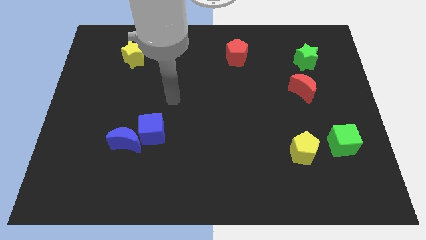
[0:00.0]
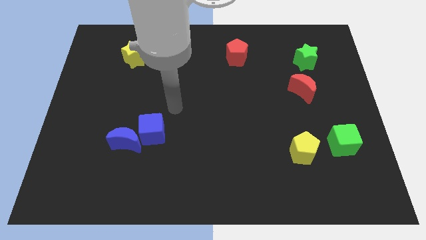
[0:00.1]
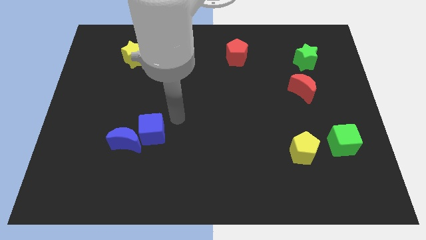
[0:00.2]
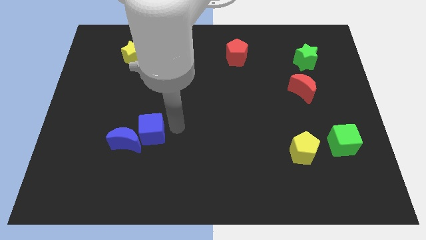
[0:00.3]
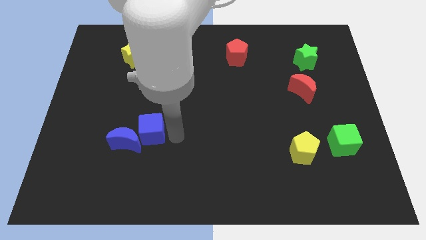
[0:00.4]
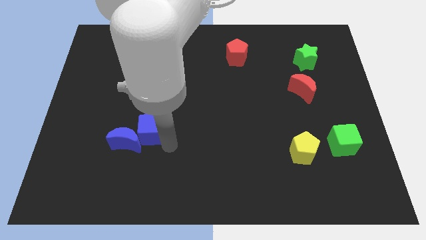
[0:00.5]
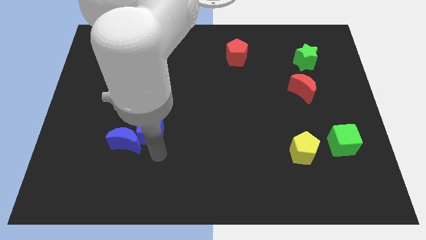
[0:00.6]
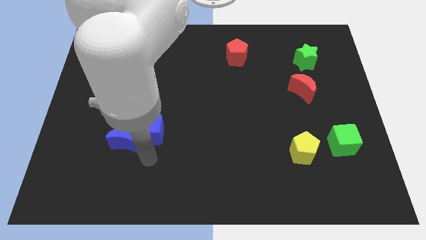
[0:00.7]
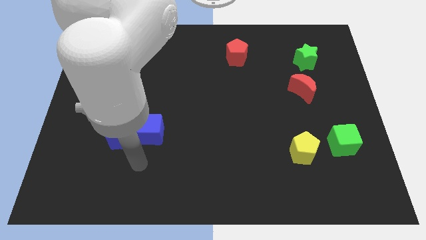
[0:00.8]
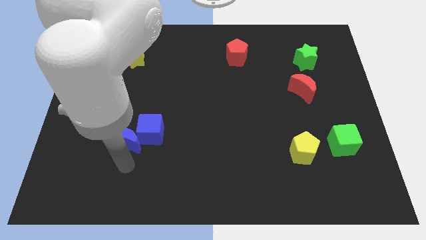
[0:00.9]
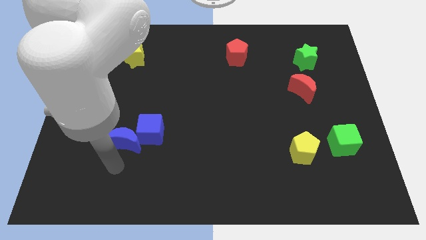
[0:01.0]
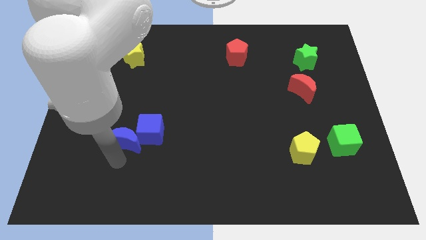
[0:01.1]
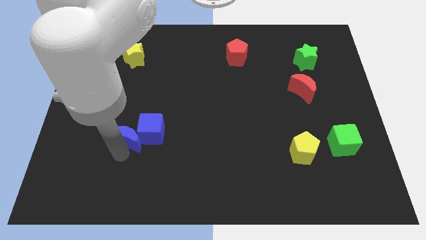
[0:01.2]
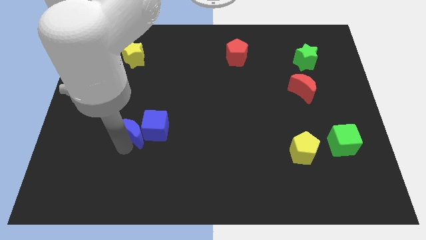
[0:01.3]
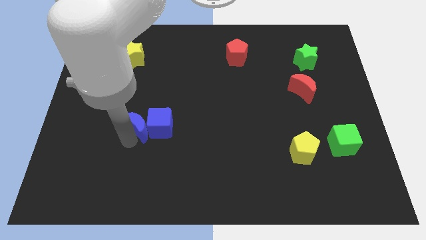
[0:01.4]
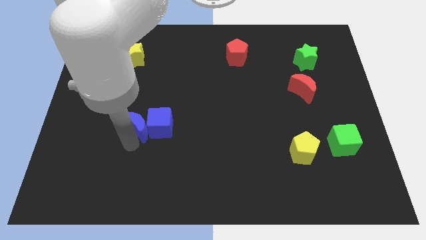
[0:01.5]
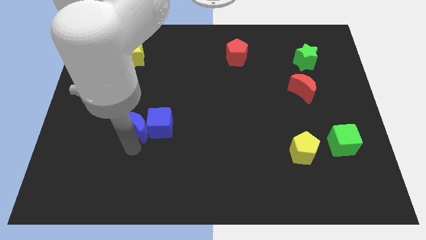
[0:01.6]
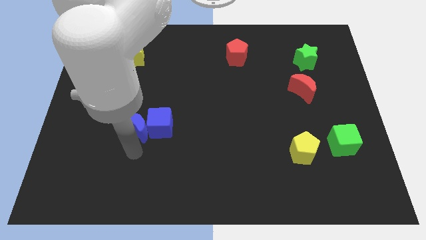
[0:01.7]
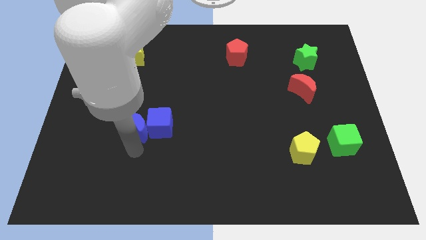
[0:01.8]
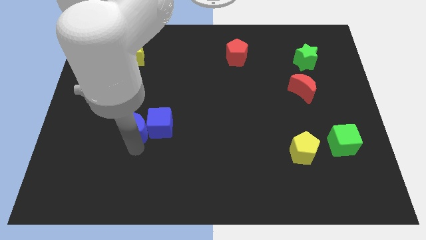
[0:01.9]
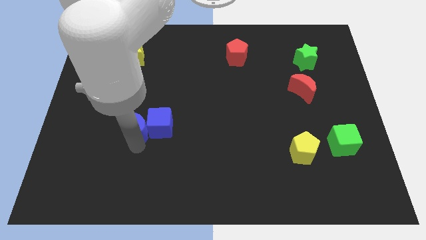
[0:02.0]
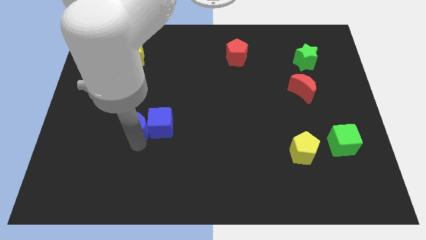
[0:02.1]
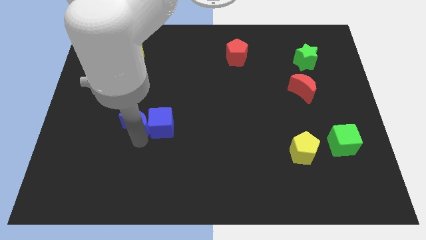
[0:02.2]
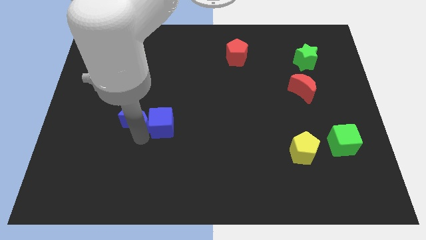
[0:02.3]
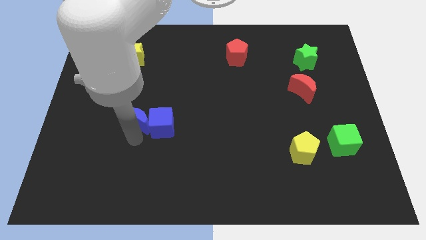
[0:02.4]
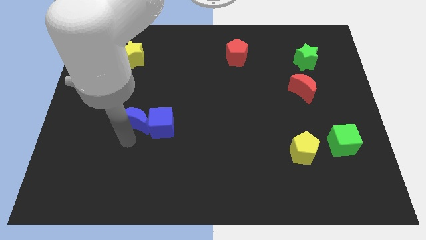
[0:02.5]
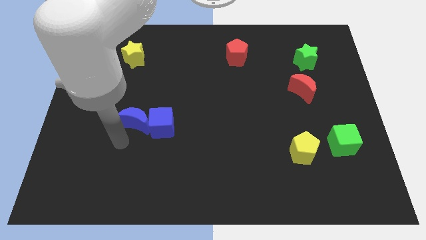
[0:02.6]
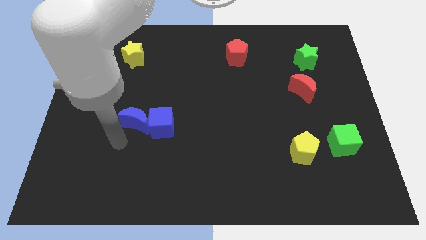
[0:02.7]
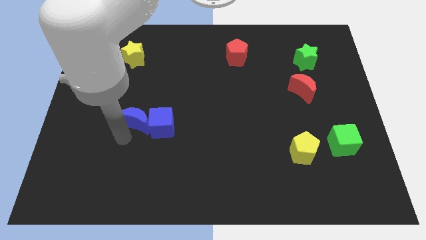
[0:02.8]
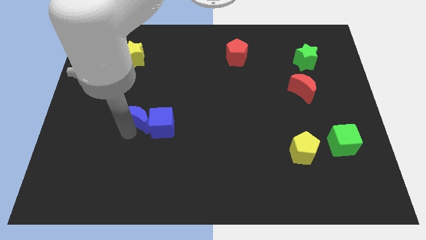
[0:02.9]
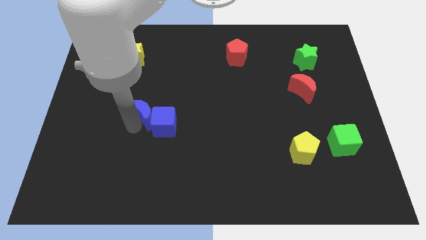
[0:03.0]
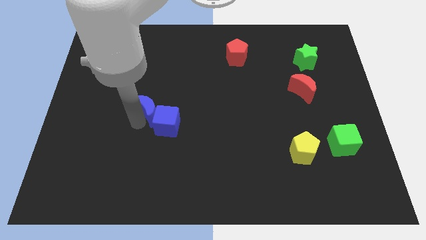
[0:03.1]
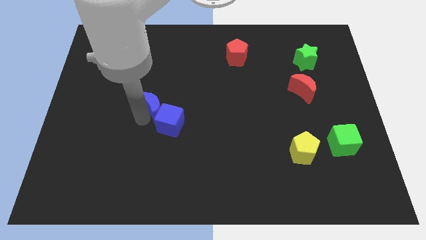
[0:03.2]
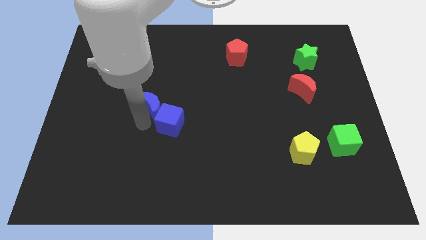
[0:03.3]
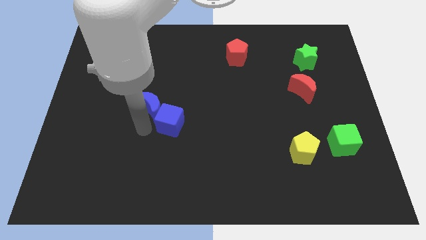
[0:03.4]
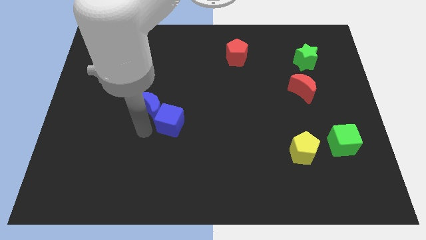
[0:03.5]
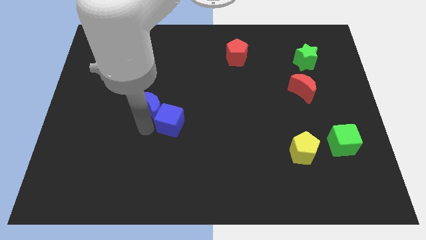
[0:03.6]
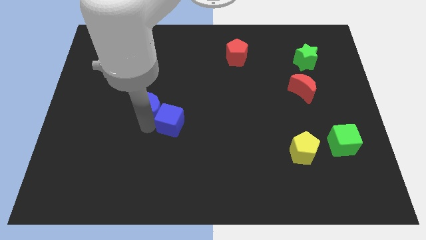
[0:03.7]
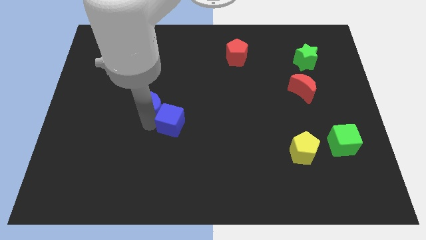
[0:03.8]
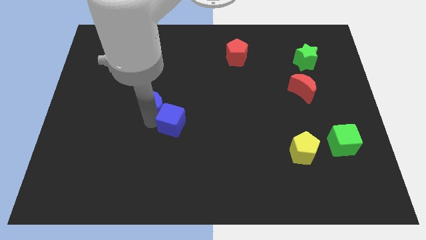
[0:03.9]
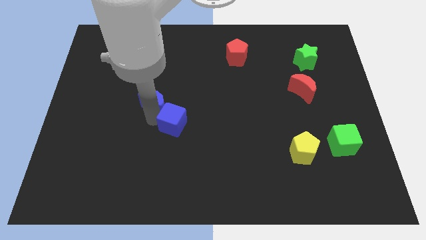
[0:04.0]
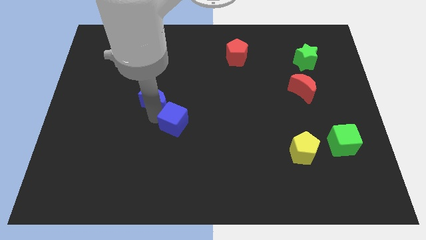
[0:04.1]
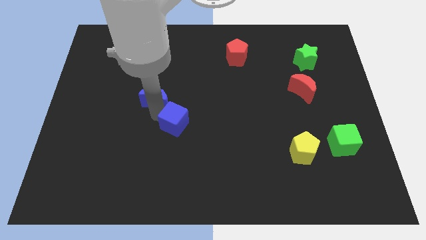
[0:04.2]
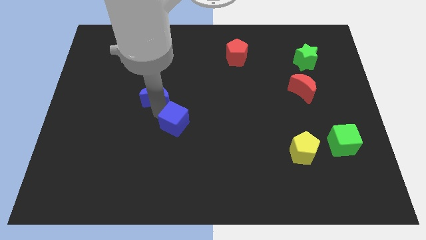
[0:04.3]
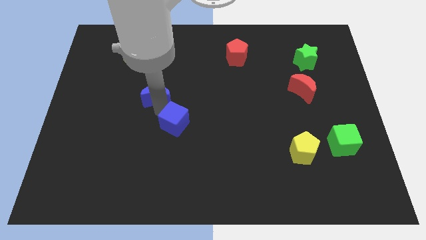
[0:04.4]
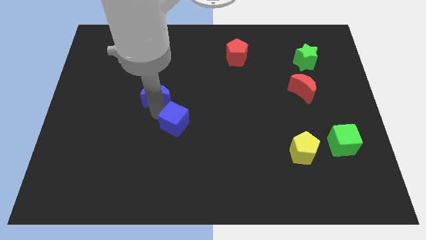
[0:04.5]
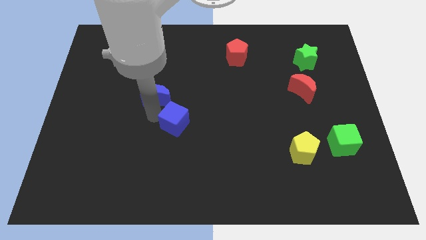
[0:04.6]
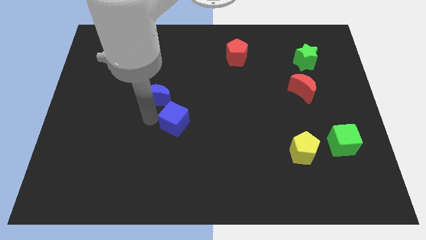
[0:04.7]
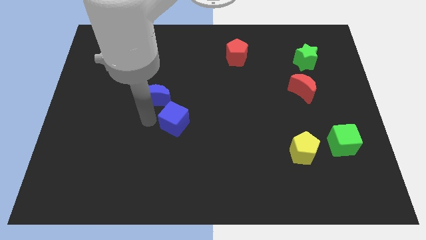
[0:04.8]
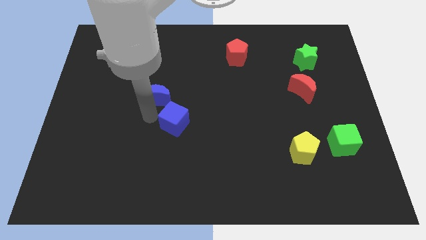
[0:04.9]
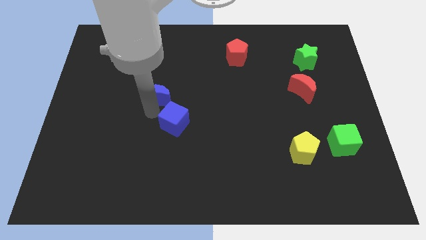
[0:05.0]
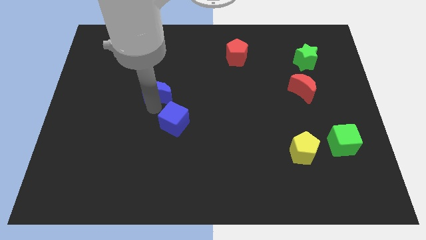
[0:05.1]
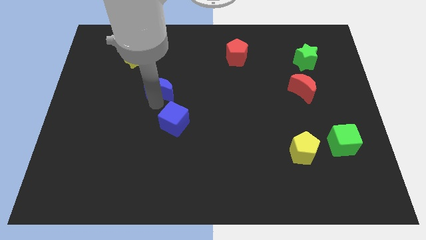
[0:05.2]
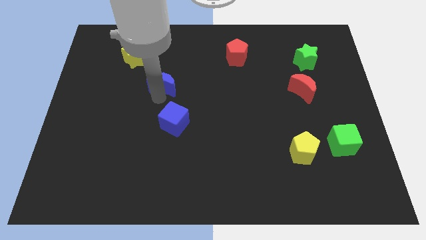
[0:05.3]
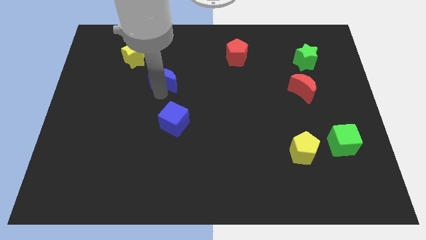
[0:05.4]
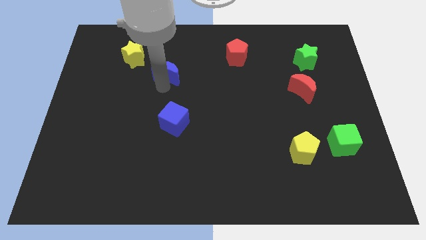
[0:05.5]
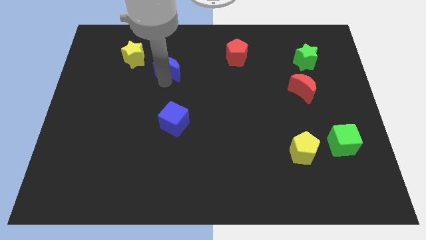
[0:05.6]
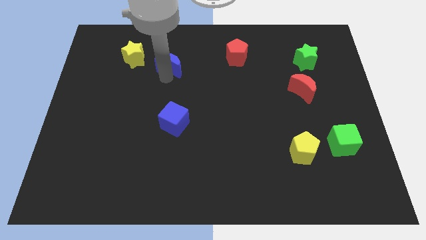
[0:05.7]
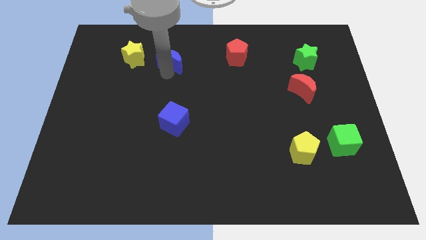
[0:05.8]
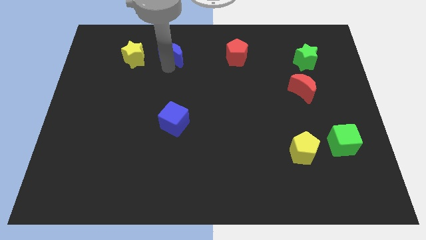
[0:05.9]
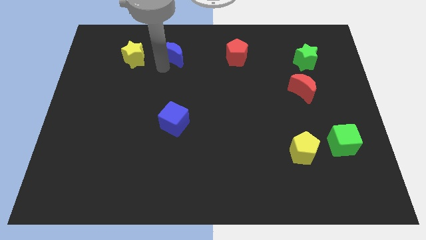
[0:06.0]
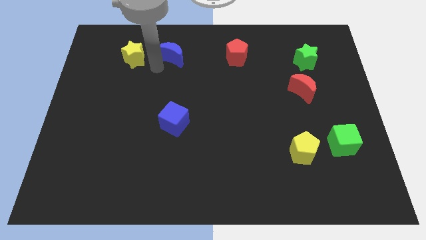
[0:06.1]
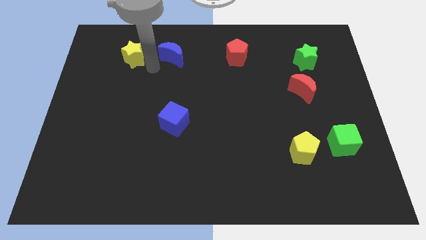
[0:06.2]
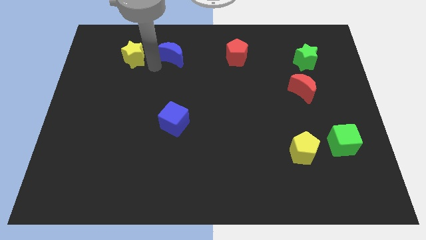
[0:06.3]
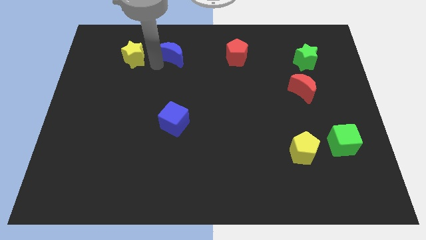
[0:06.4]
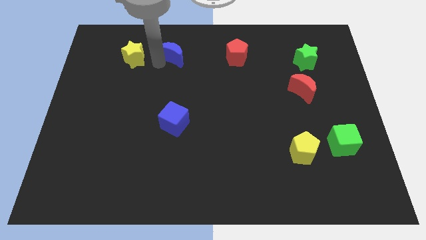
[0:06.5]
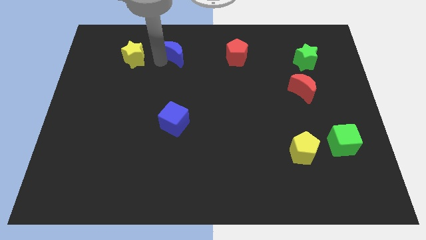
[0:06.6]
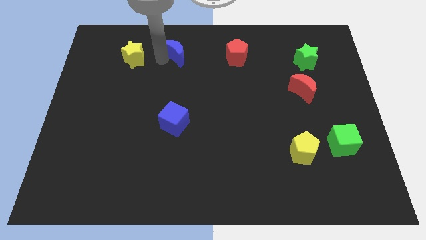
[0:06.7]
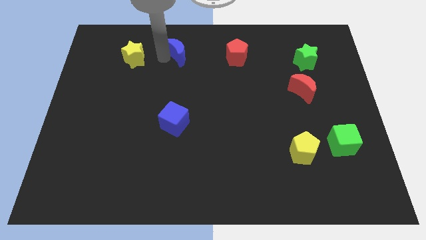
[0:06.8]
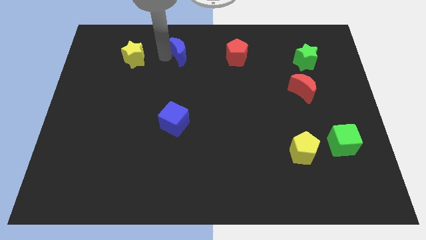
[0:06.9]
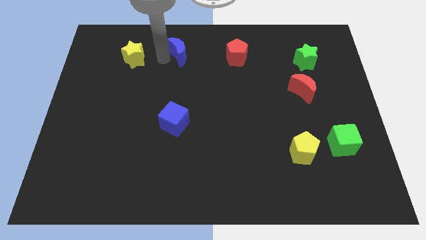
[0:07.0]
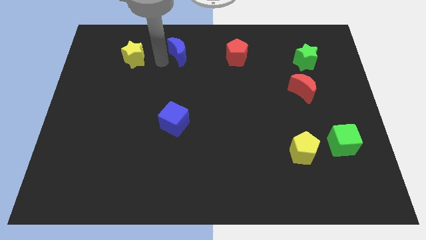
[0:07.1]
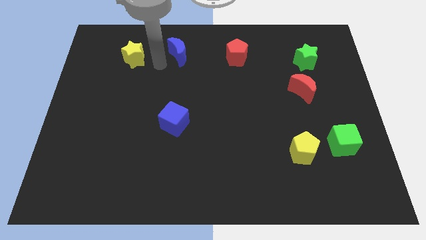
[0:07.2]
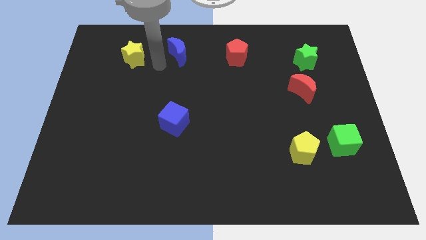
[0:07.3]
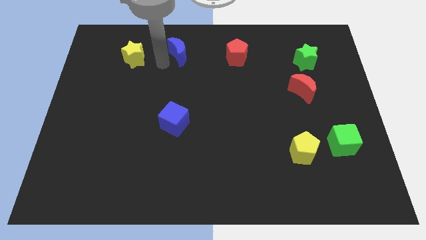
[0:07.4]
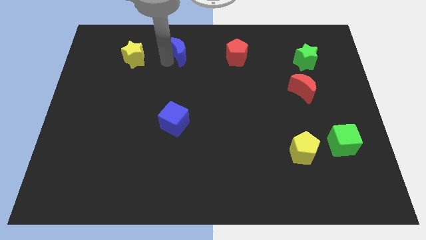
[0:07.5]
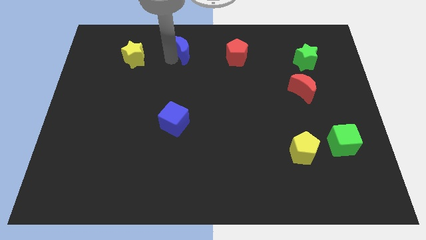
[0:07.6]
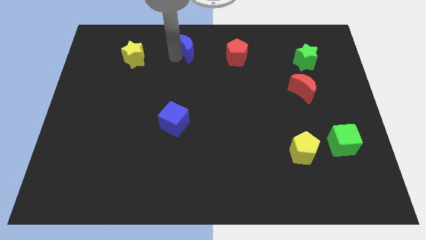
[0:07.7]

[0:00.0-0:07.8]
move the blue moon to the towards your base
